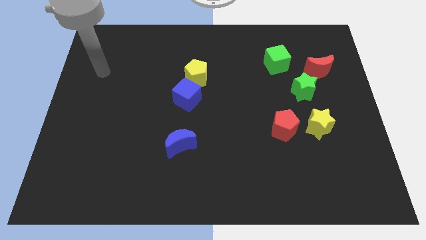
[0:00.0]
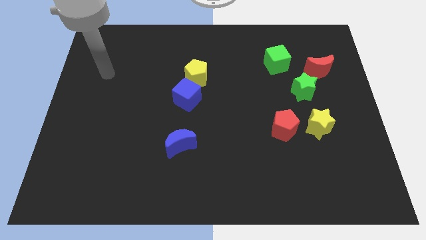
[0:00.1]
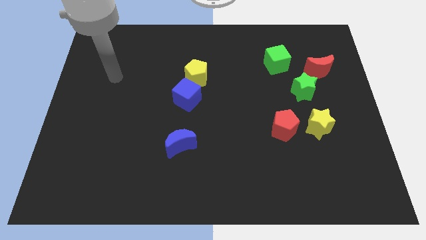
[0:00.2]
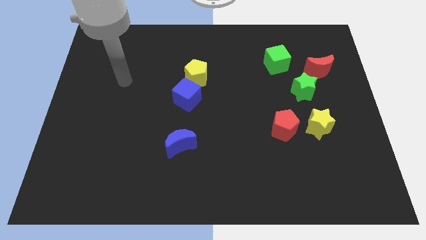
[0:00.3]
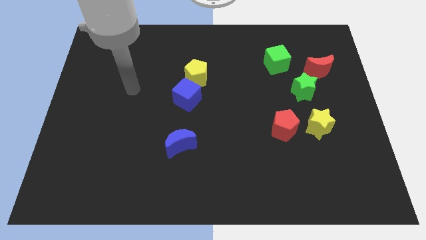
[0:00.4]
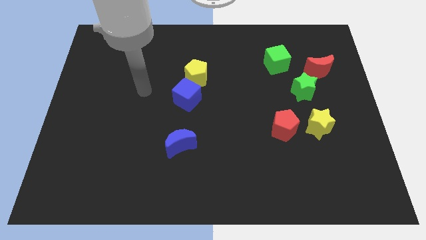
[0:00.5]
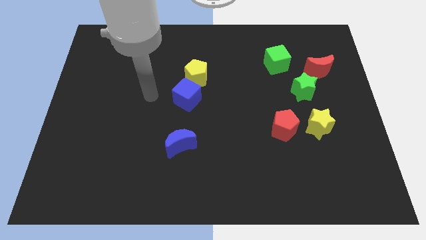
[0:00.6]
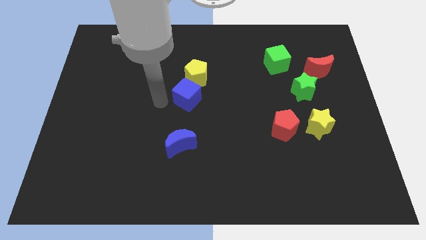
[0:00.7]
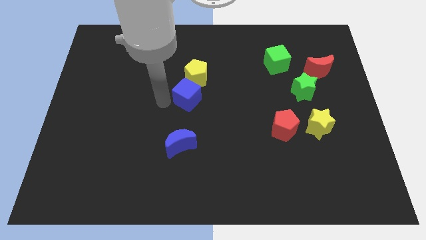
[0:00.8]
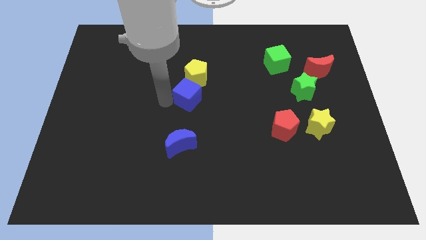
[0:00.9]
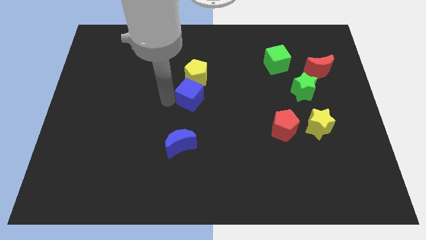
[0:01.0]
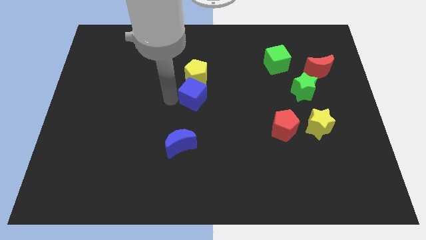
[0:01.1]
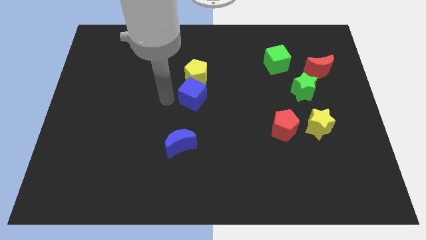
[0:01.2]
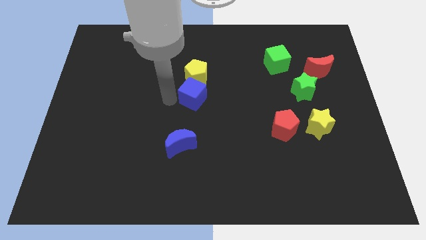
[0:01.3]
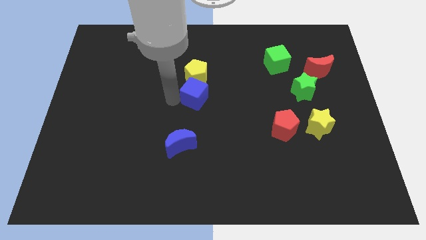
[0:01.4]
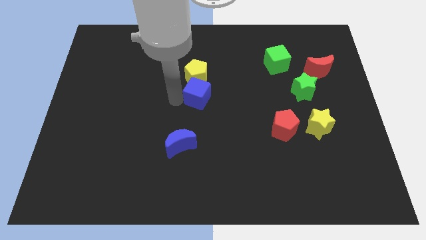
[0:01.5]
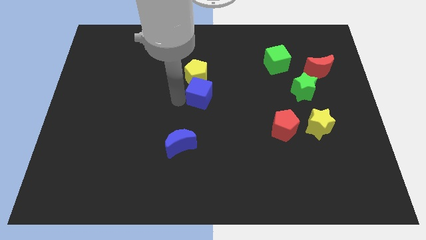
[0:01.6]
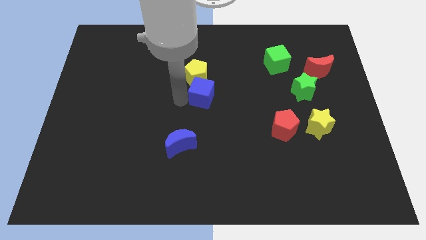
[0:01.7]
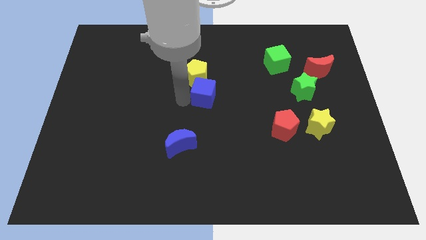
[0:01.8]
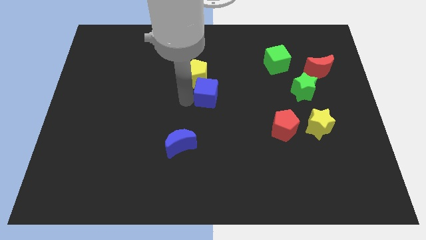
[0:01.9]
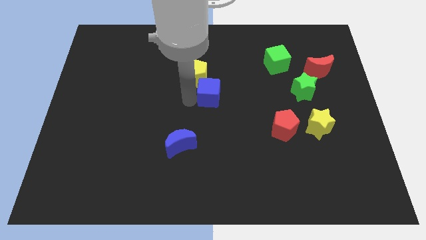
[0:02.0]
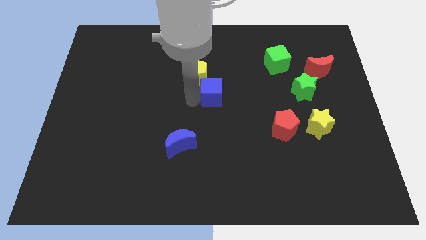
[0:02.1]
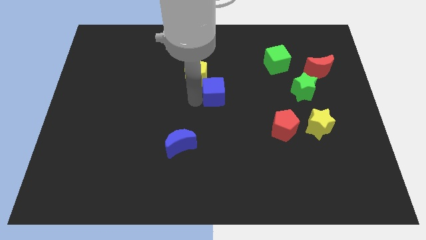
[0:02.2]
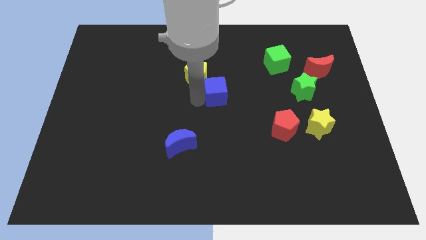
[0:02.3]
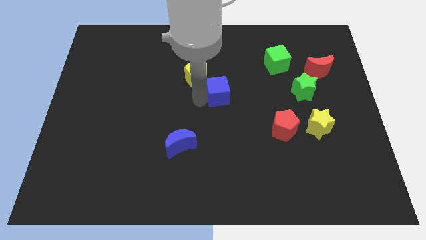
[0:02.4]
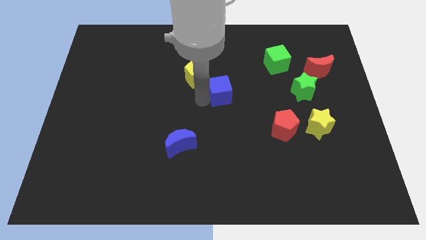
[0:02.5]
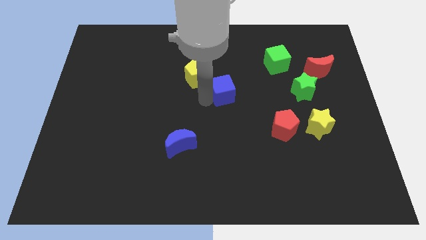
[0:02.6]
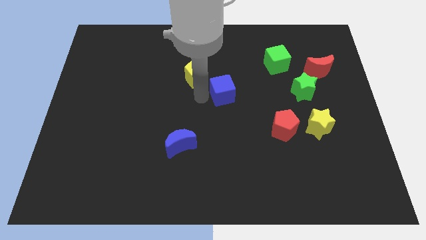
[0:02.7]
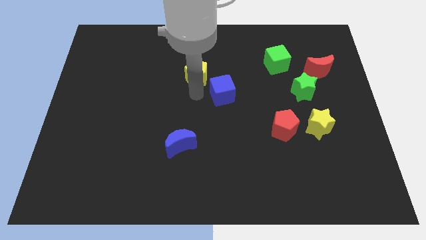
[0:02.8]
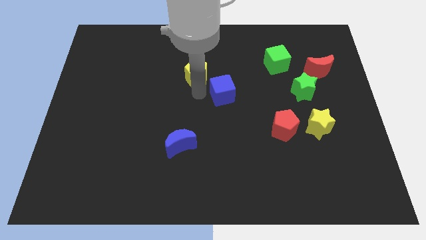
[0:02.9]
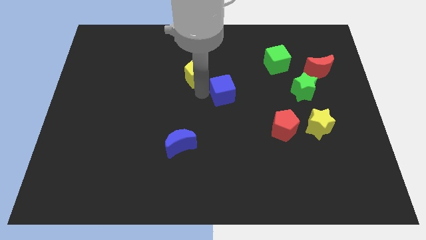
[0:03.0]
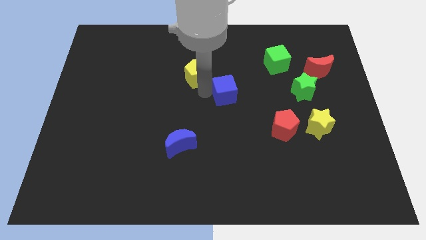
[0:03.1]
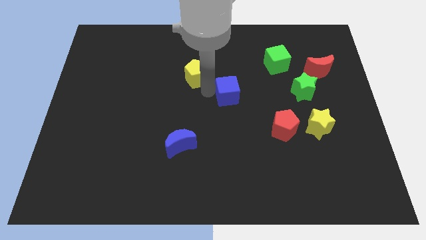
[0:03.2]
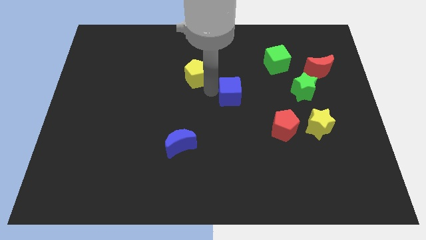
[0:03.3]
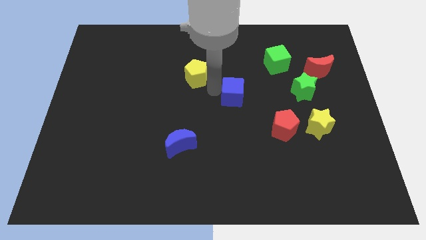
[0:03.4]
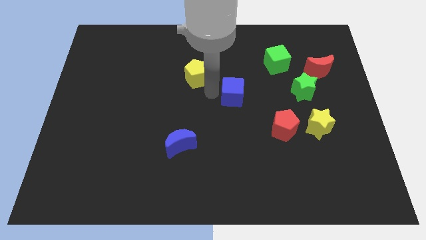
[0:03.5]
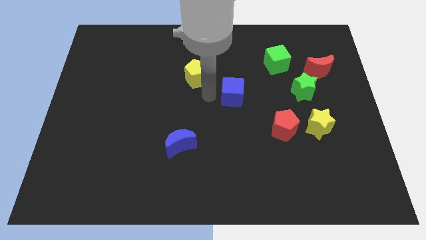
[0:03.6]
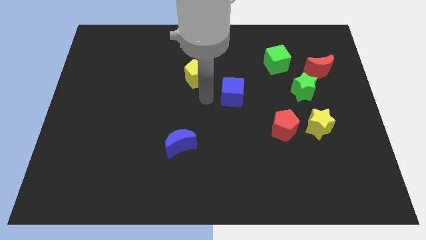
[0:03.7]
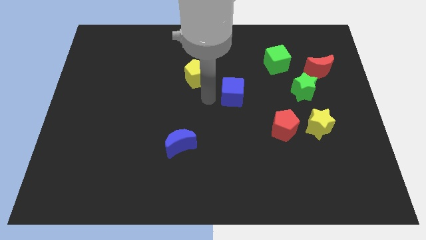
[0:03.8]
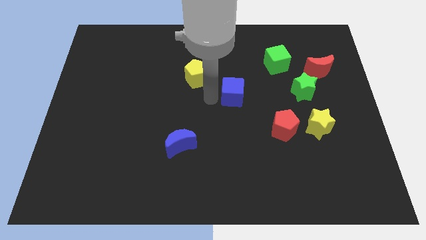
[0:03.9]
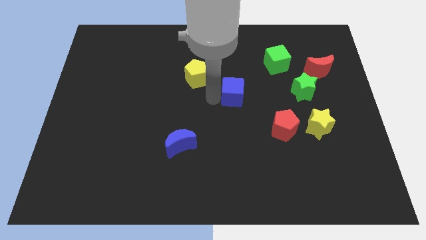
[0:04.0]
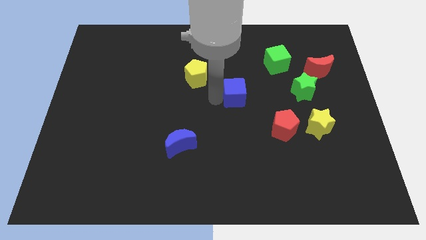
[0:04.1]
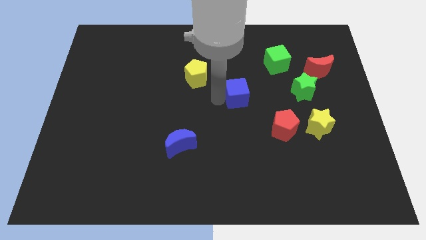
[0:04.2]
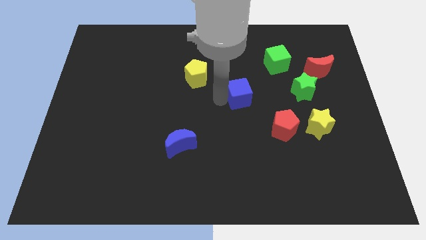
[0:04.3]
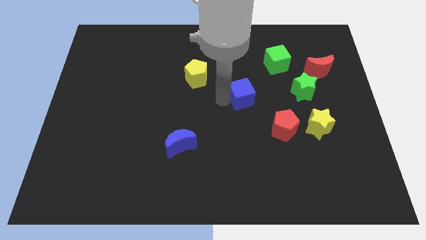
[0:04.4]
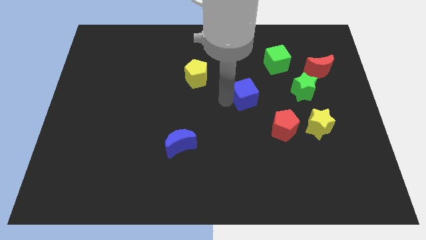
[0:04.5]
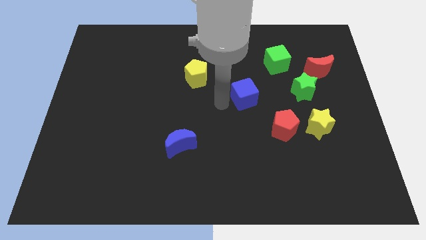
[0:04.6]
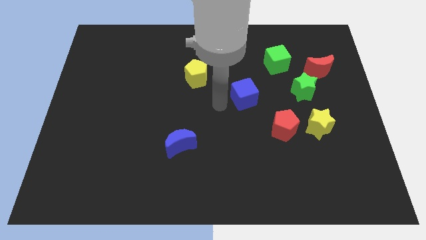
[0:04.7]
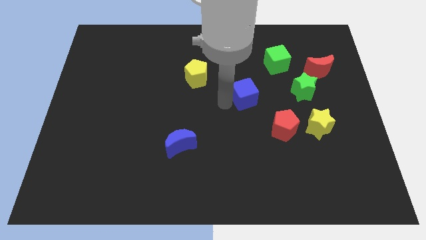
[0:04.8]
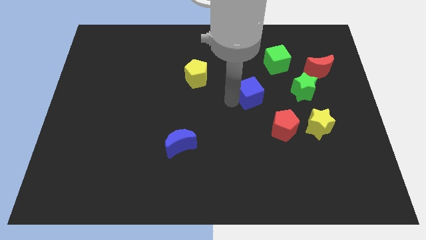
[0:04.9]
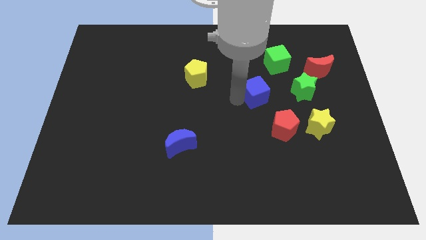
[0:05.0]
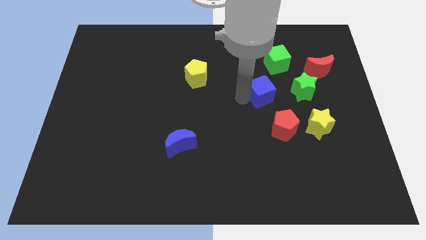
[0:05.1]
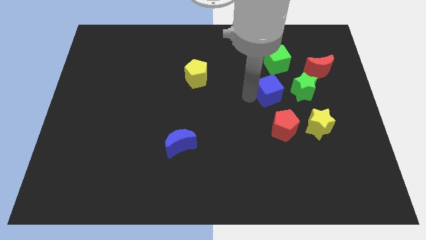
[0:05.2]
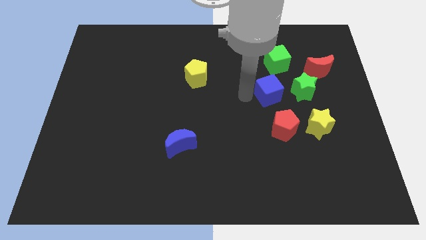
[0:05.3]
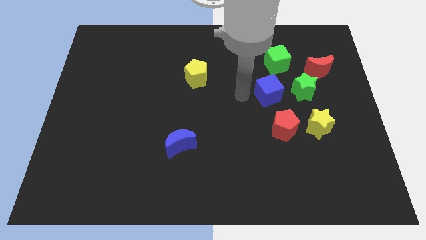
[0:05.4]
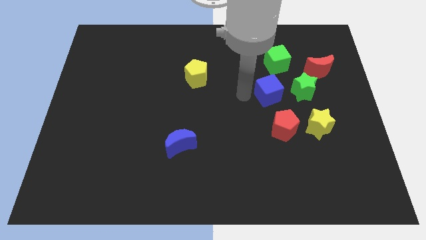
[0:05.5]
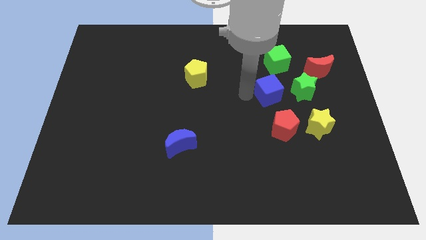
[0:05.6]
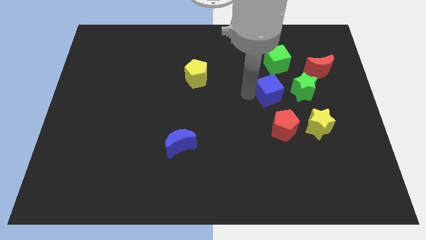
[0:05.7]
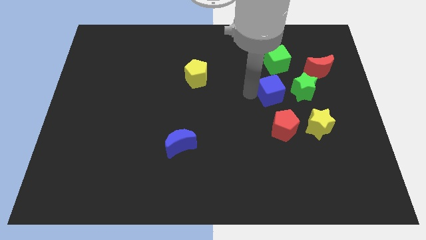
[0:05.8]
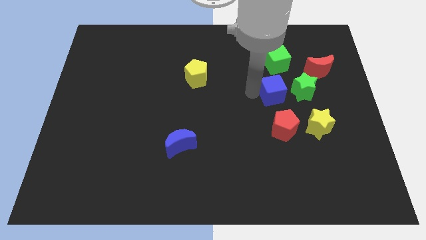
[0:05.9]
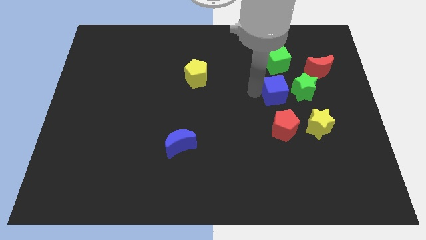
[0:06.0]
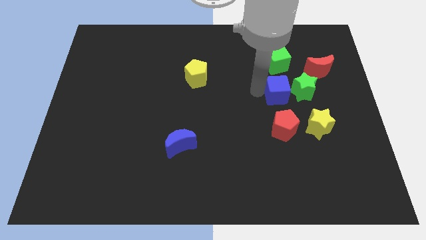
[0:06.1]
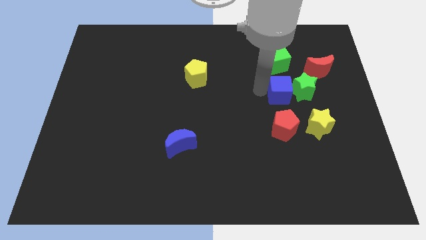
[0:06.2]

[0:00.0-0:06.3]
push the blue cube next to the green star

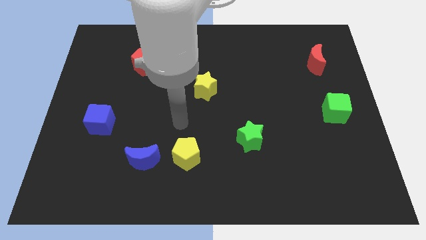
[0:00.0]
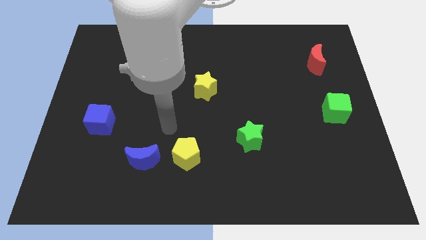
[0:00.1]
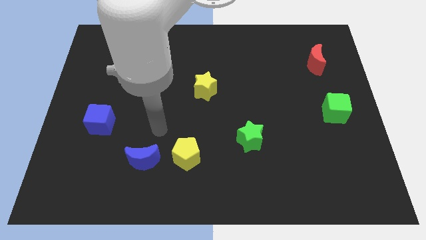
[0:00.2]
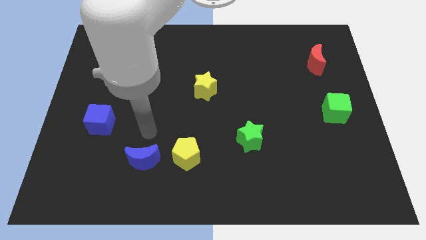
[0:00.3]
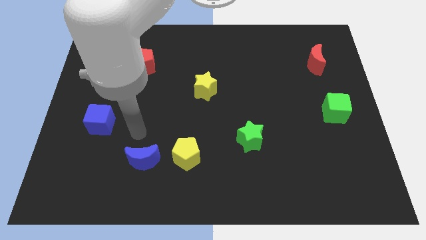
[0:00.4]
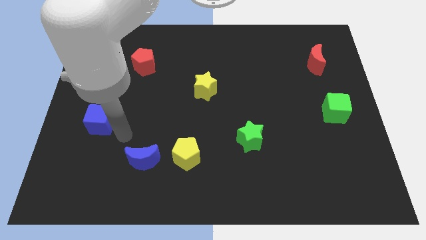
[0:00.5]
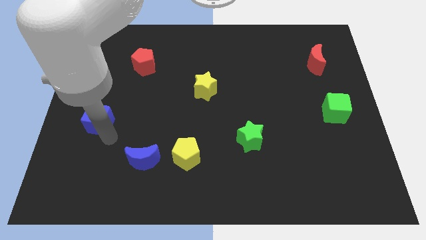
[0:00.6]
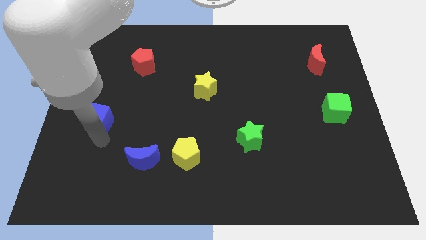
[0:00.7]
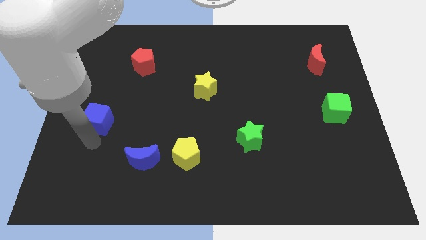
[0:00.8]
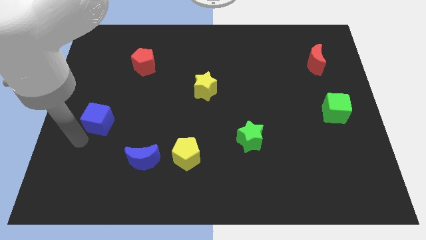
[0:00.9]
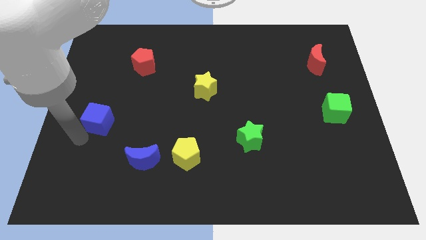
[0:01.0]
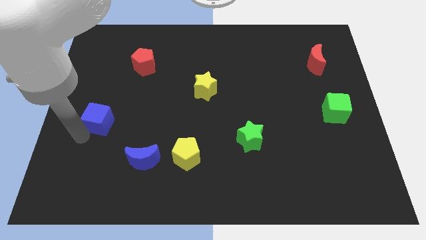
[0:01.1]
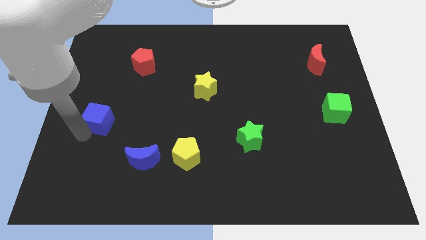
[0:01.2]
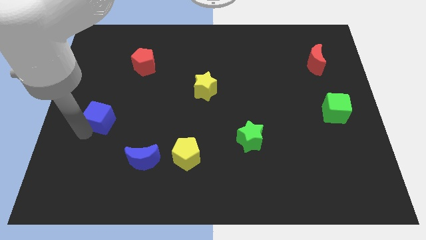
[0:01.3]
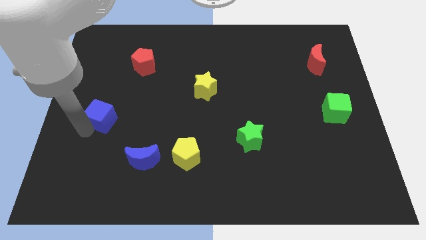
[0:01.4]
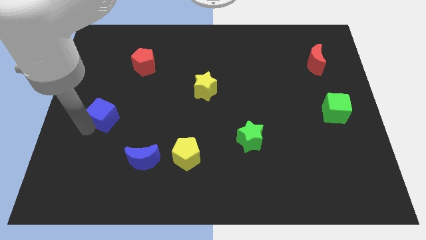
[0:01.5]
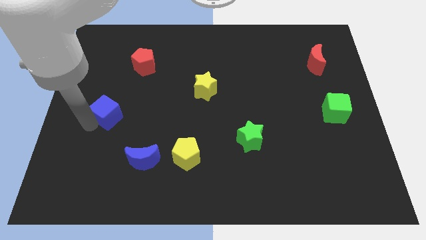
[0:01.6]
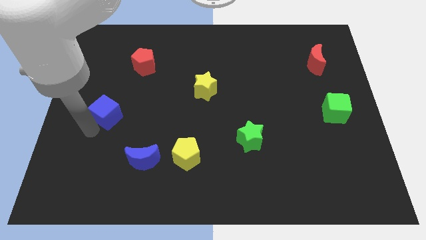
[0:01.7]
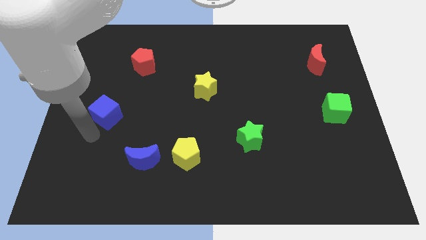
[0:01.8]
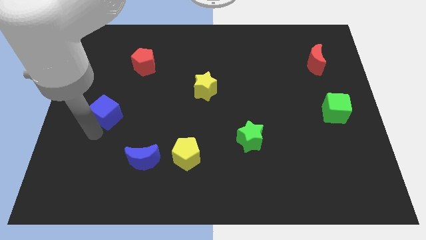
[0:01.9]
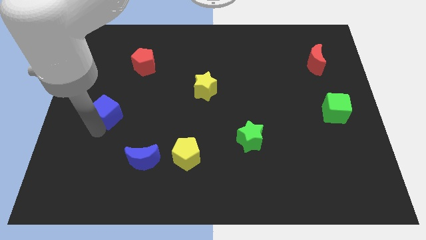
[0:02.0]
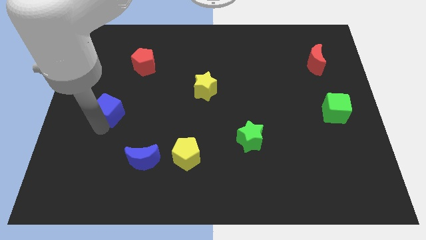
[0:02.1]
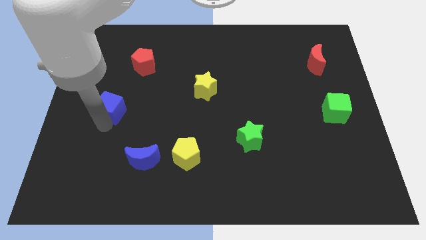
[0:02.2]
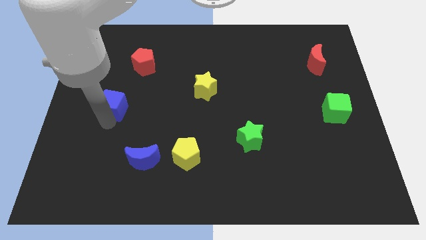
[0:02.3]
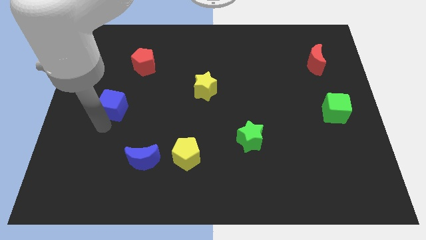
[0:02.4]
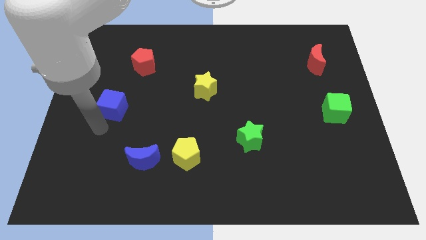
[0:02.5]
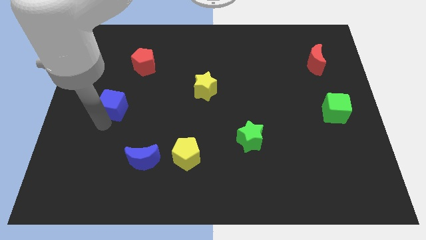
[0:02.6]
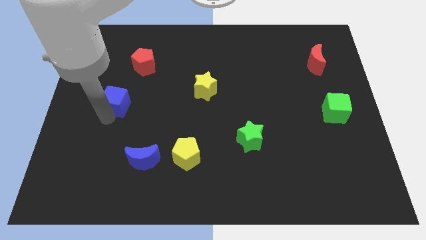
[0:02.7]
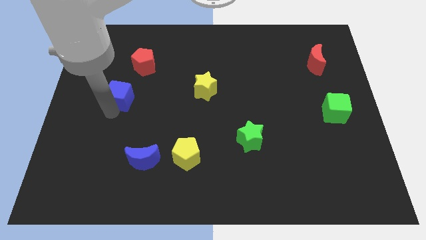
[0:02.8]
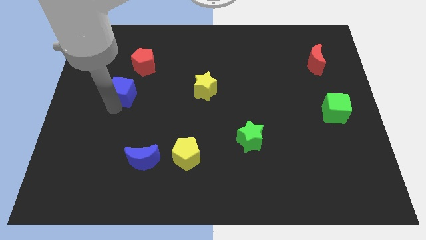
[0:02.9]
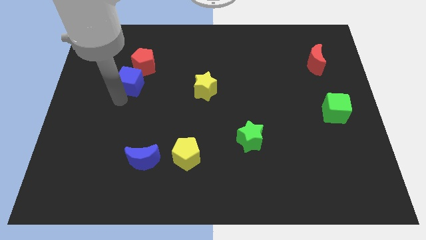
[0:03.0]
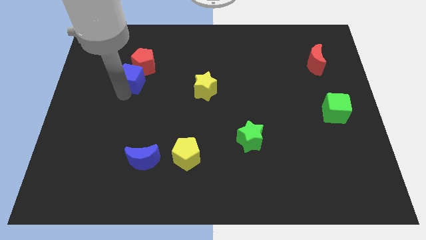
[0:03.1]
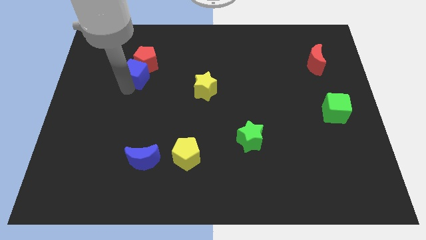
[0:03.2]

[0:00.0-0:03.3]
slide the blue cube to the red pentagon
